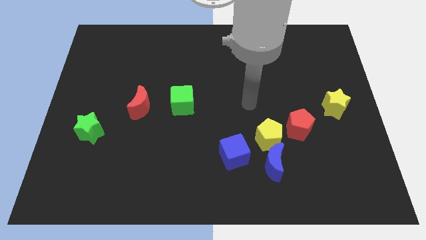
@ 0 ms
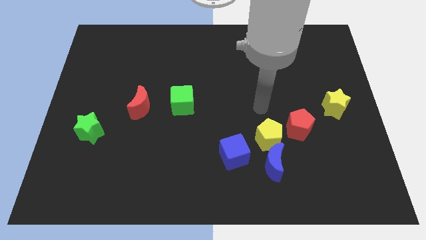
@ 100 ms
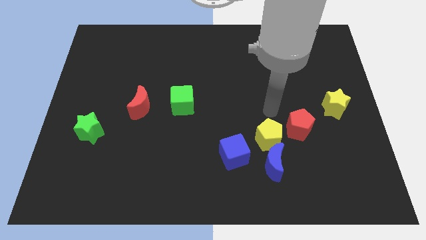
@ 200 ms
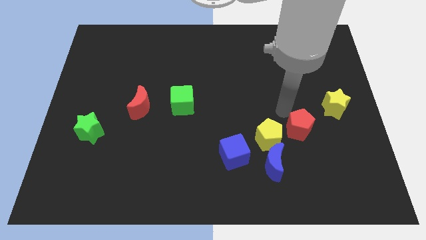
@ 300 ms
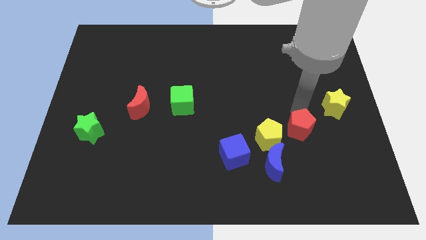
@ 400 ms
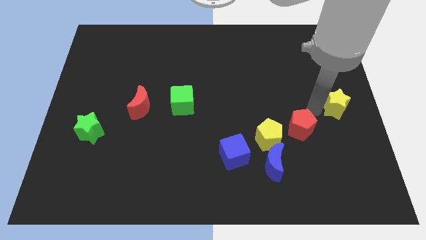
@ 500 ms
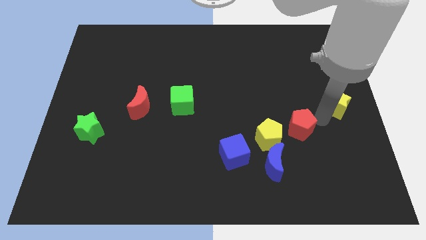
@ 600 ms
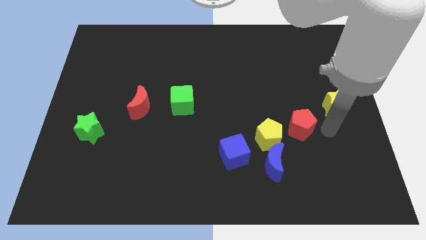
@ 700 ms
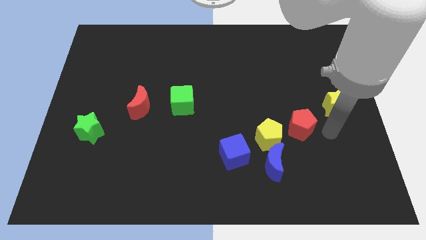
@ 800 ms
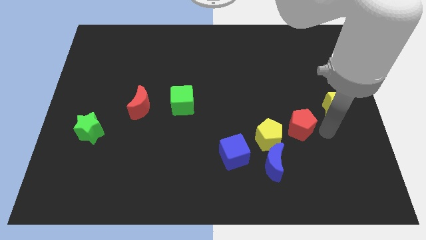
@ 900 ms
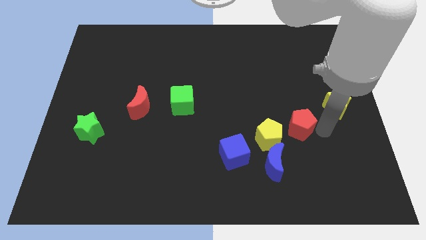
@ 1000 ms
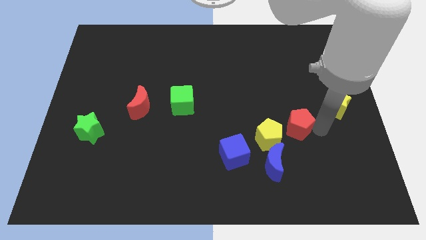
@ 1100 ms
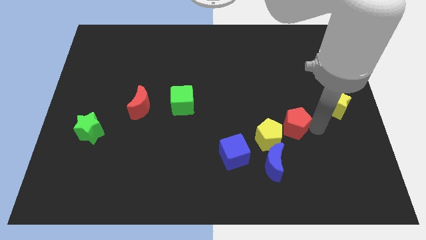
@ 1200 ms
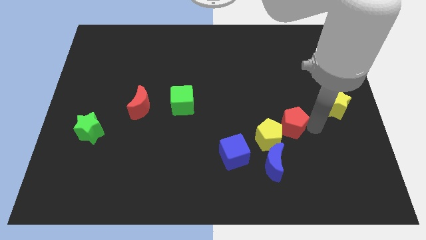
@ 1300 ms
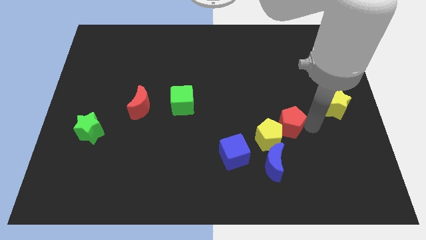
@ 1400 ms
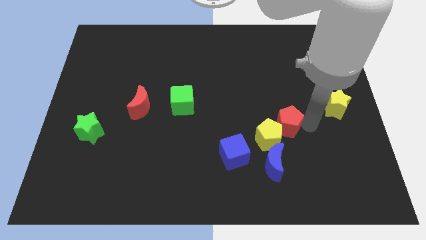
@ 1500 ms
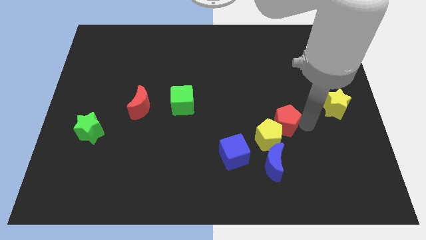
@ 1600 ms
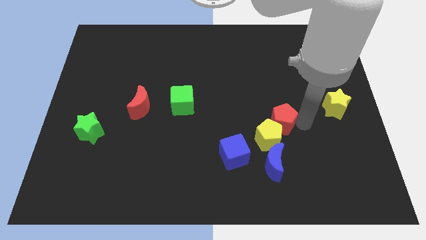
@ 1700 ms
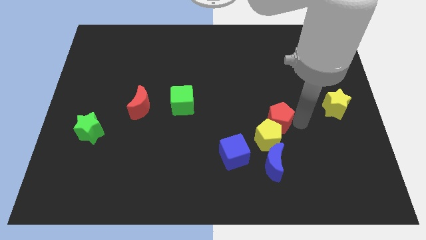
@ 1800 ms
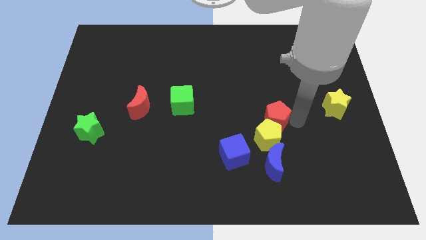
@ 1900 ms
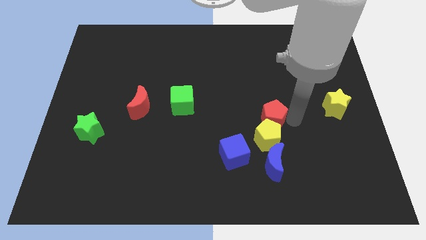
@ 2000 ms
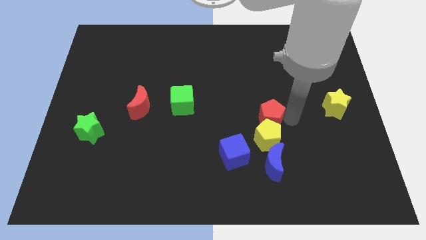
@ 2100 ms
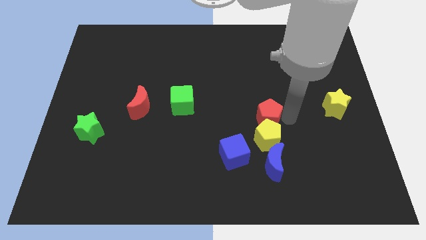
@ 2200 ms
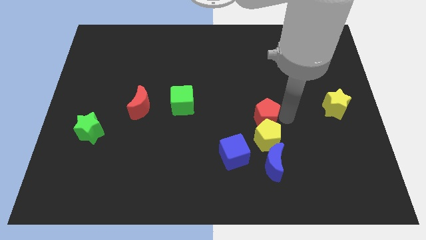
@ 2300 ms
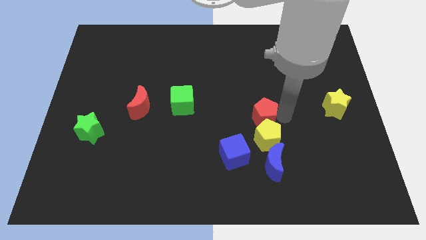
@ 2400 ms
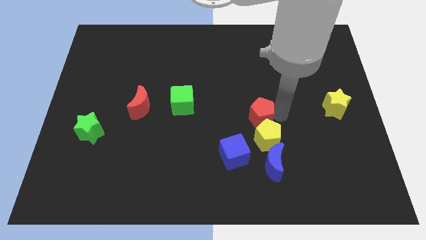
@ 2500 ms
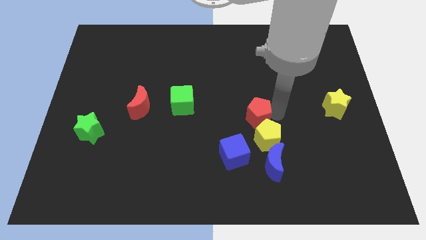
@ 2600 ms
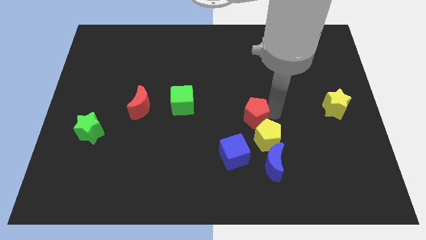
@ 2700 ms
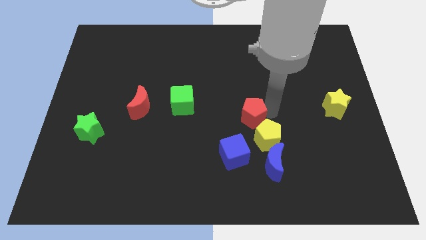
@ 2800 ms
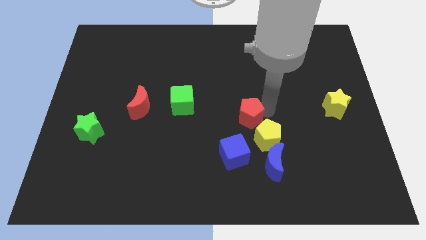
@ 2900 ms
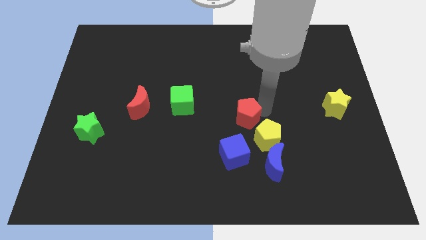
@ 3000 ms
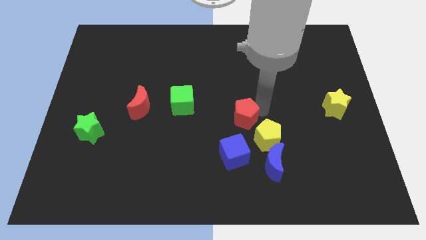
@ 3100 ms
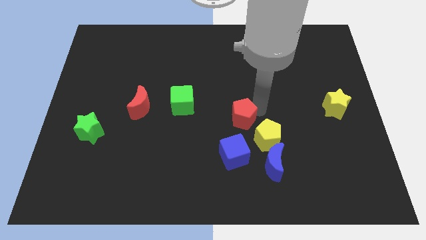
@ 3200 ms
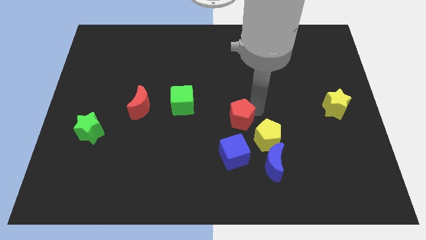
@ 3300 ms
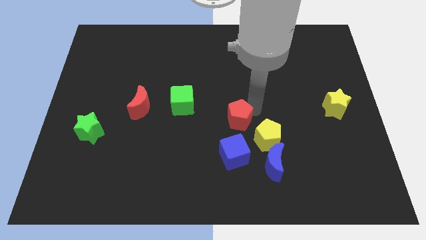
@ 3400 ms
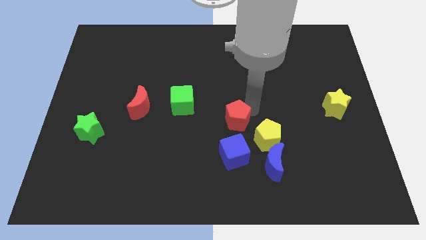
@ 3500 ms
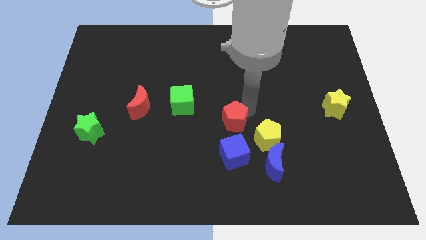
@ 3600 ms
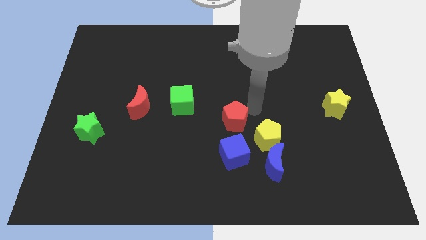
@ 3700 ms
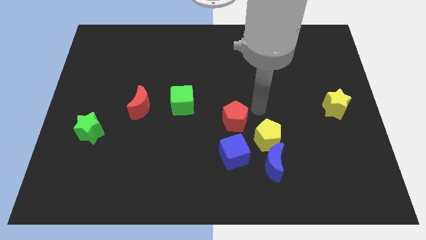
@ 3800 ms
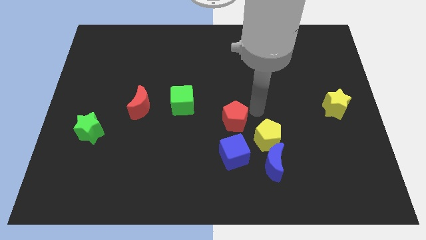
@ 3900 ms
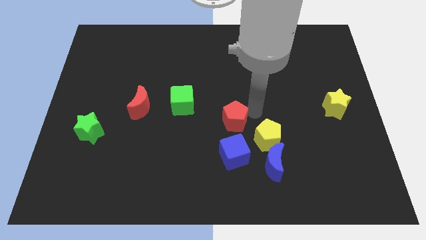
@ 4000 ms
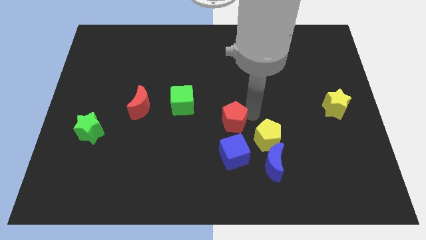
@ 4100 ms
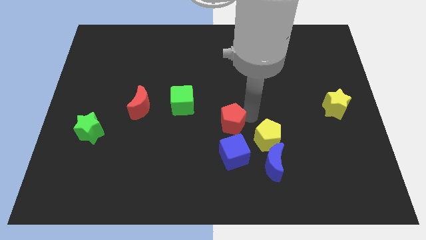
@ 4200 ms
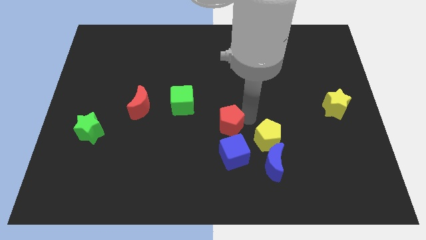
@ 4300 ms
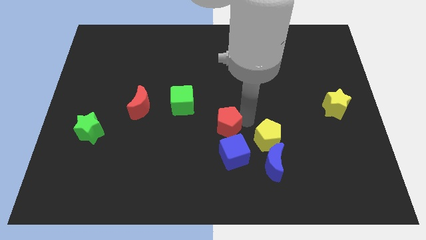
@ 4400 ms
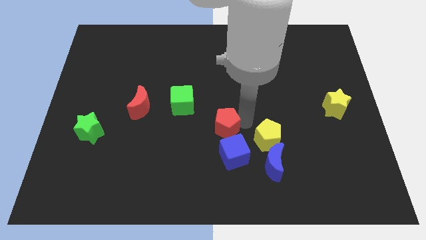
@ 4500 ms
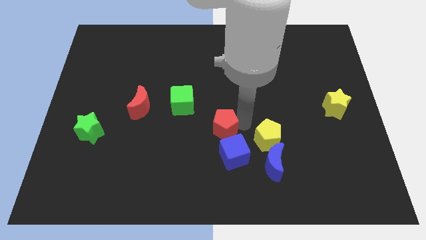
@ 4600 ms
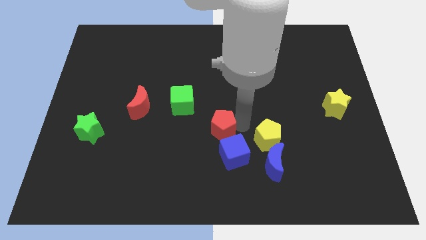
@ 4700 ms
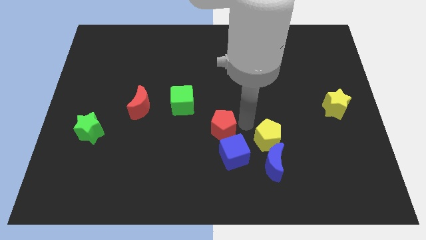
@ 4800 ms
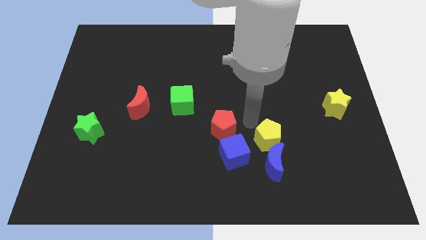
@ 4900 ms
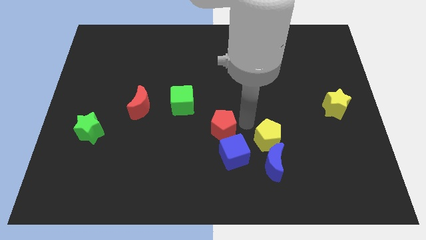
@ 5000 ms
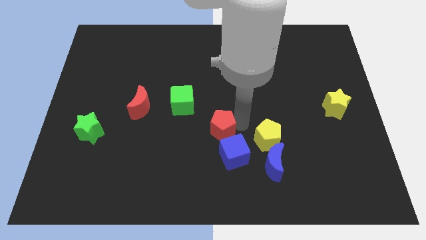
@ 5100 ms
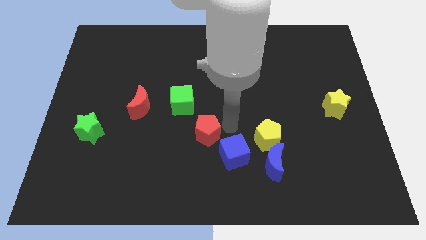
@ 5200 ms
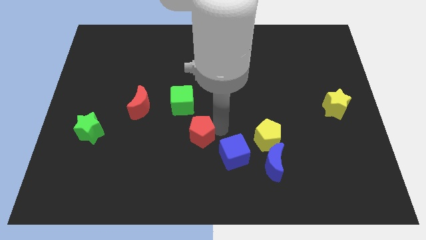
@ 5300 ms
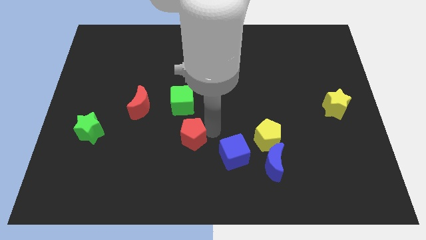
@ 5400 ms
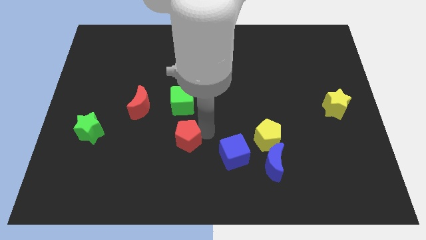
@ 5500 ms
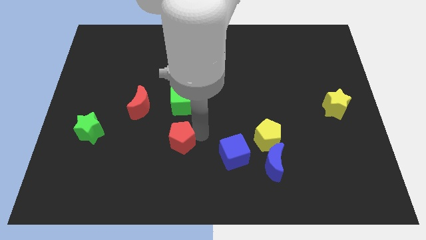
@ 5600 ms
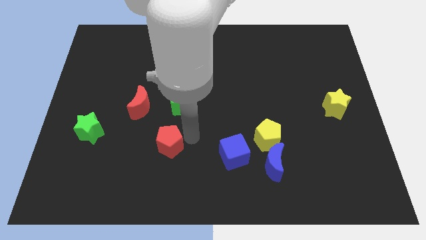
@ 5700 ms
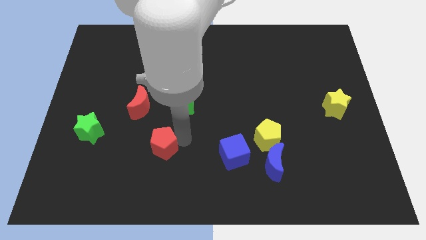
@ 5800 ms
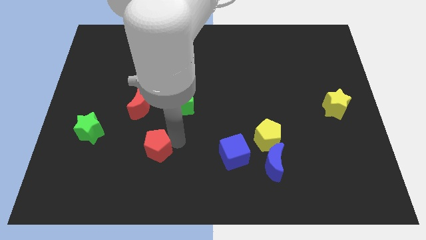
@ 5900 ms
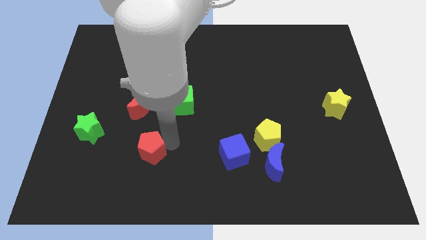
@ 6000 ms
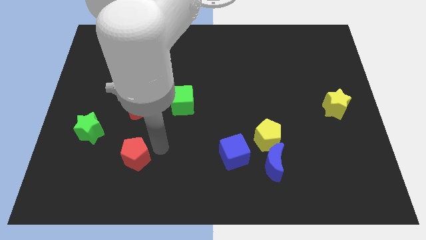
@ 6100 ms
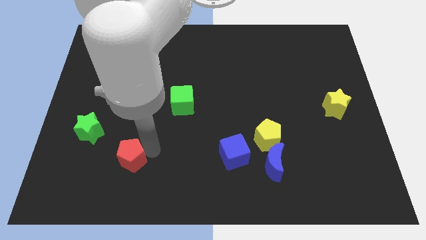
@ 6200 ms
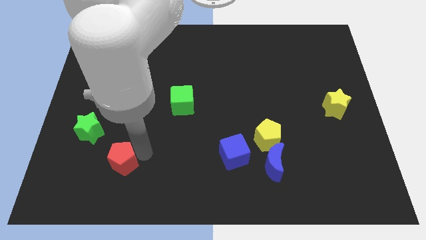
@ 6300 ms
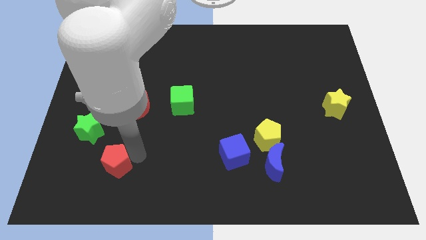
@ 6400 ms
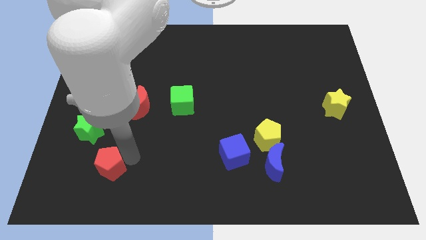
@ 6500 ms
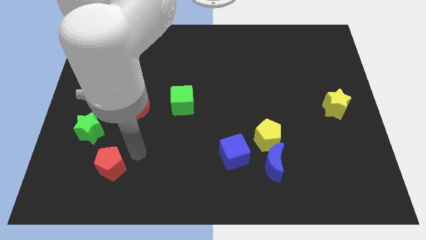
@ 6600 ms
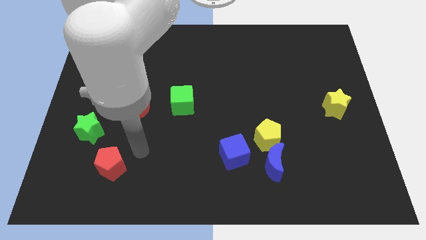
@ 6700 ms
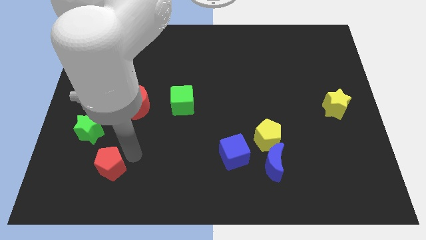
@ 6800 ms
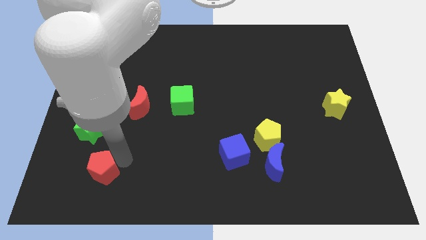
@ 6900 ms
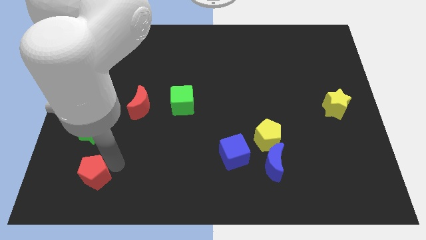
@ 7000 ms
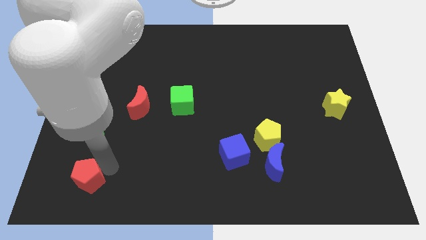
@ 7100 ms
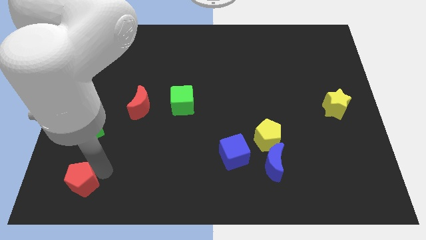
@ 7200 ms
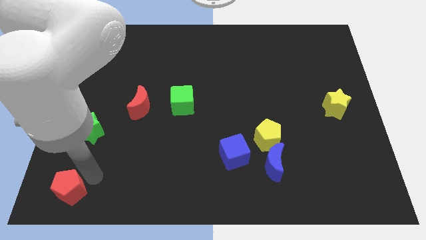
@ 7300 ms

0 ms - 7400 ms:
push the red pentagon to the bottom left corner
